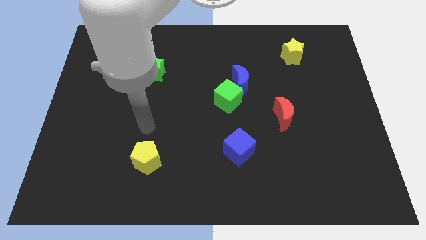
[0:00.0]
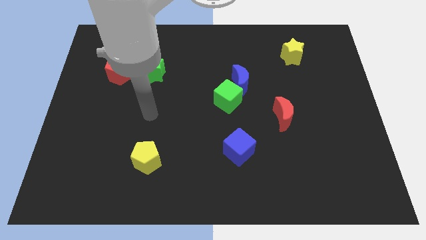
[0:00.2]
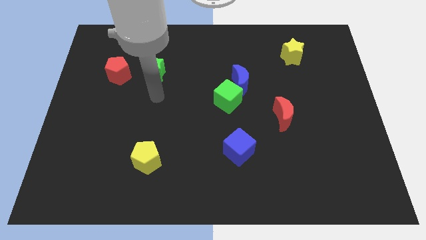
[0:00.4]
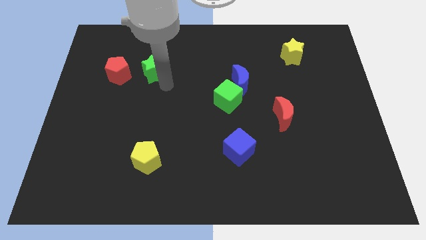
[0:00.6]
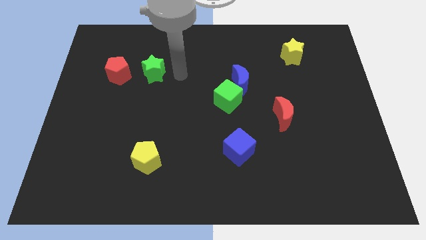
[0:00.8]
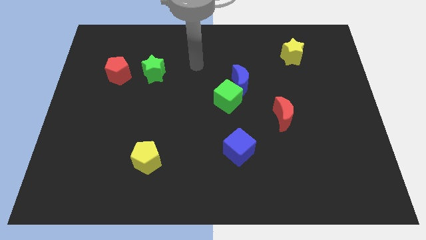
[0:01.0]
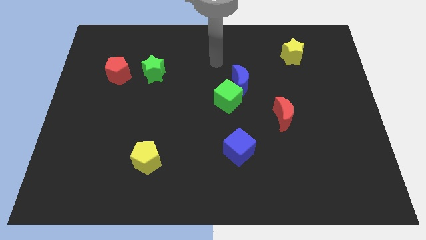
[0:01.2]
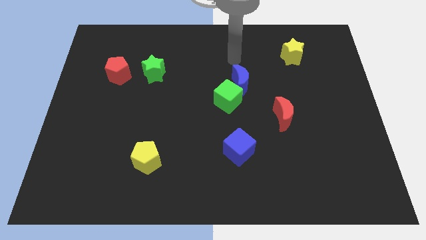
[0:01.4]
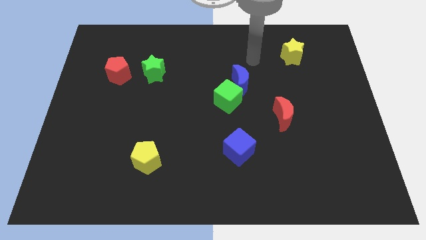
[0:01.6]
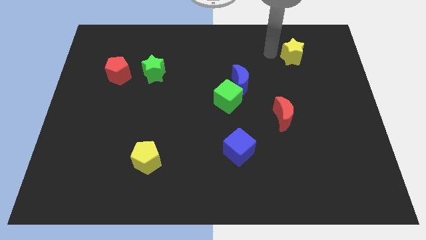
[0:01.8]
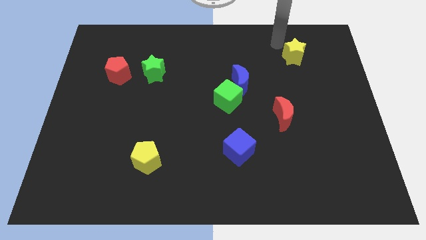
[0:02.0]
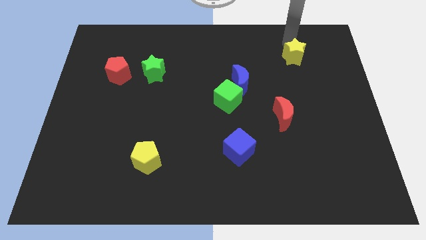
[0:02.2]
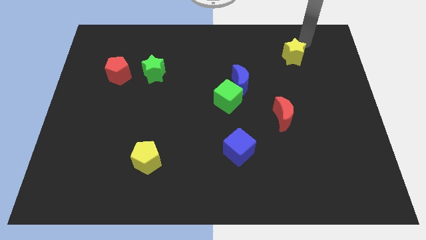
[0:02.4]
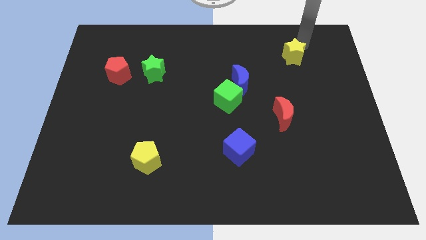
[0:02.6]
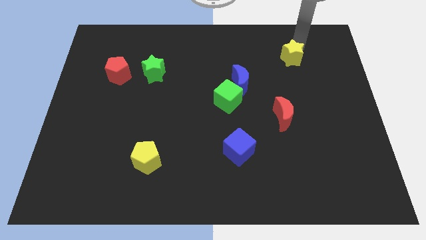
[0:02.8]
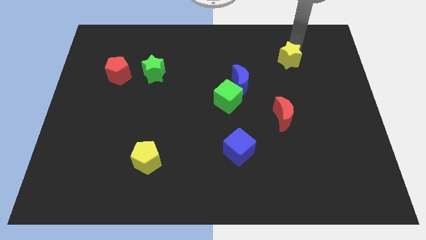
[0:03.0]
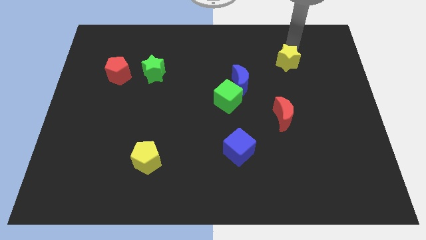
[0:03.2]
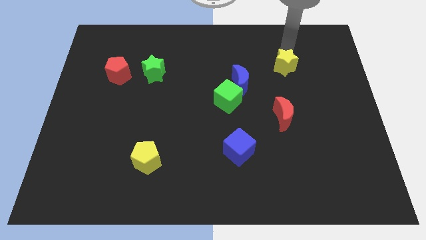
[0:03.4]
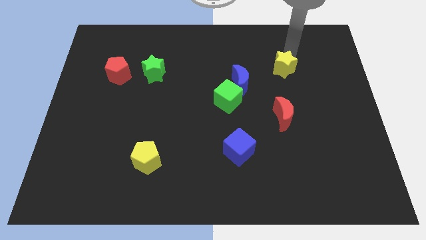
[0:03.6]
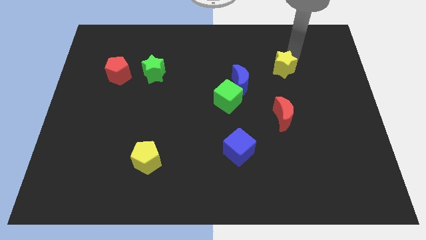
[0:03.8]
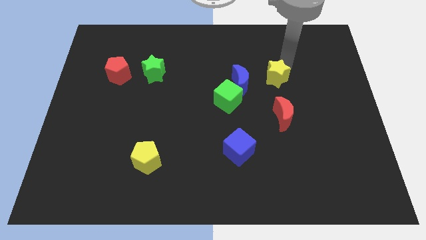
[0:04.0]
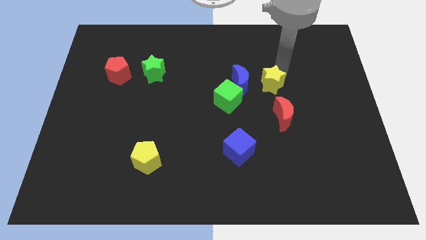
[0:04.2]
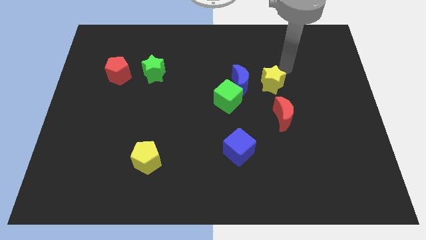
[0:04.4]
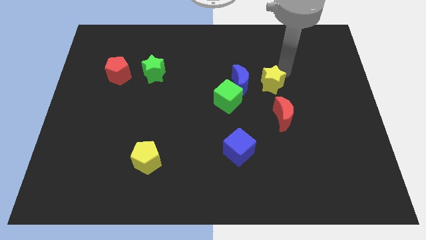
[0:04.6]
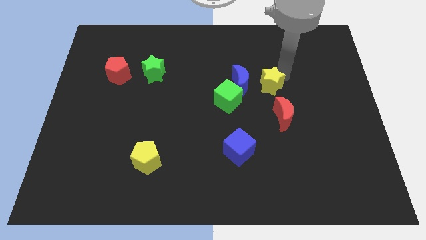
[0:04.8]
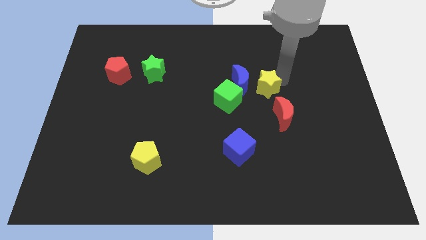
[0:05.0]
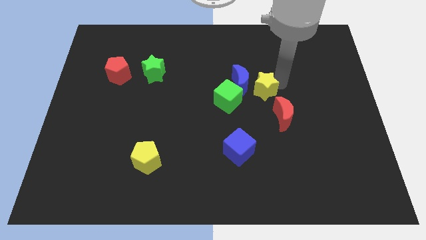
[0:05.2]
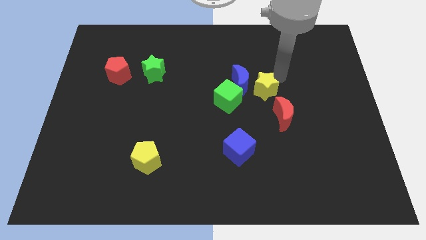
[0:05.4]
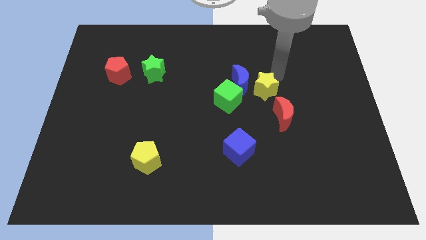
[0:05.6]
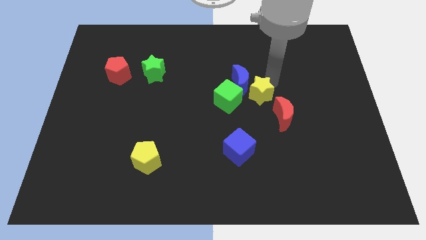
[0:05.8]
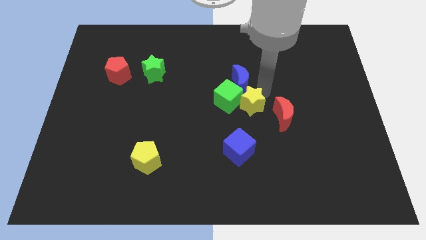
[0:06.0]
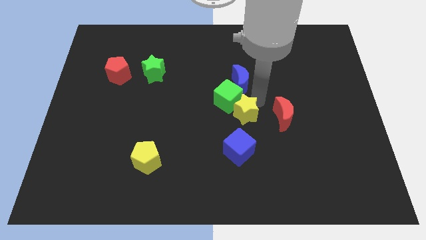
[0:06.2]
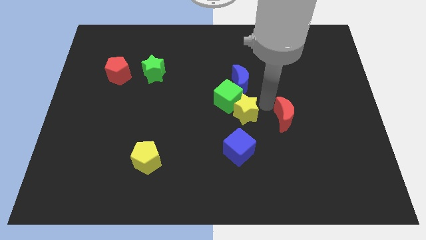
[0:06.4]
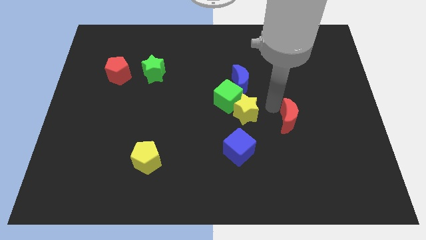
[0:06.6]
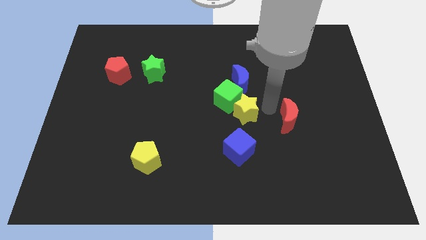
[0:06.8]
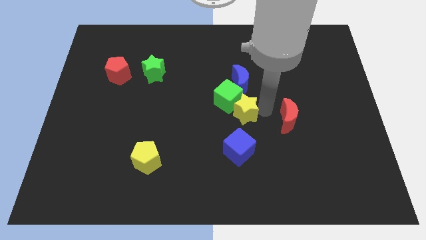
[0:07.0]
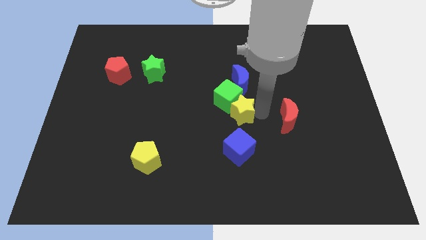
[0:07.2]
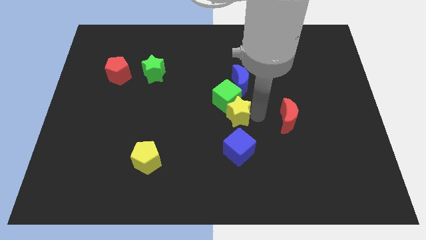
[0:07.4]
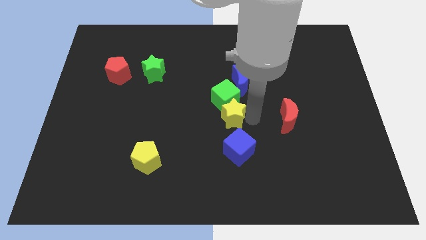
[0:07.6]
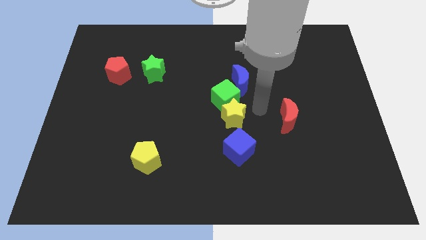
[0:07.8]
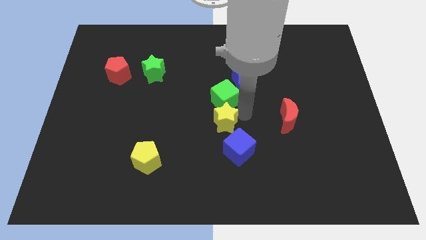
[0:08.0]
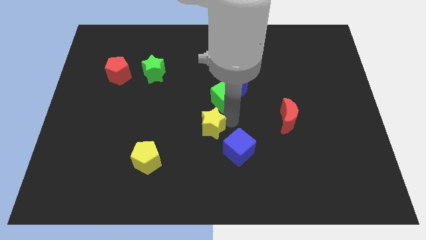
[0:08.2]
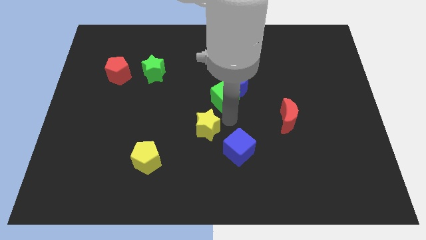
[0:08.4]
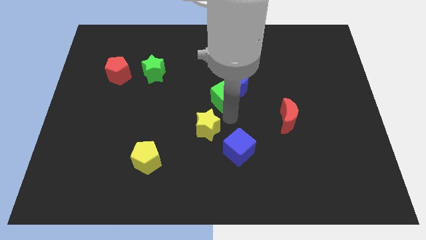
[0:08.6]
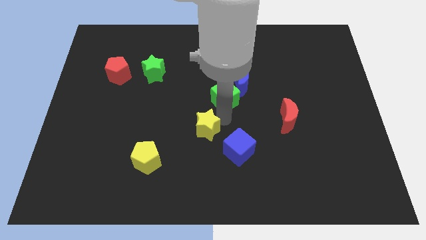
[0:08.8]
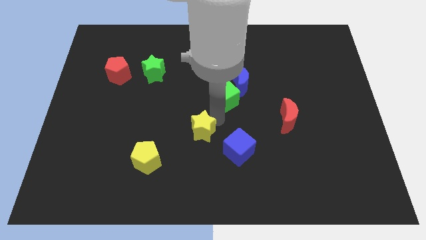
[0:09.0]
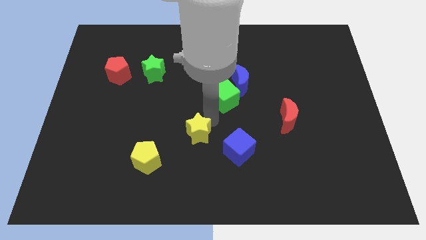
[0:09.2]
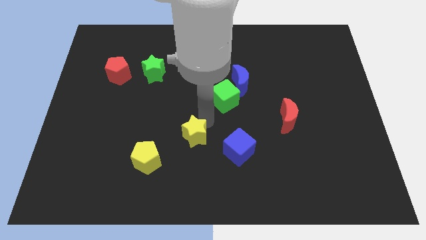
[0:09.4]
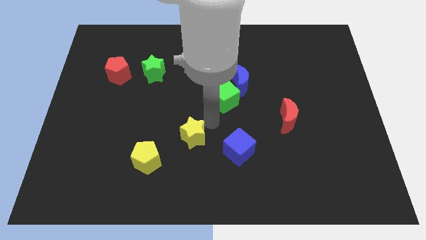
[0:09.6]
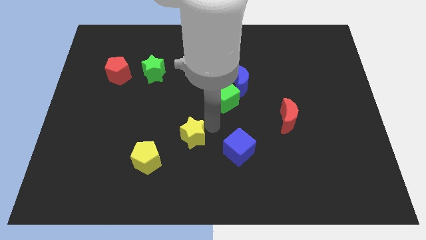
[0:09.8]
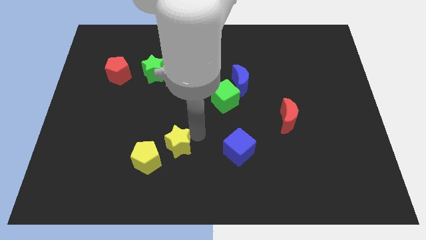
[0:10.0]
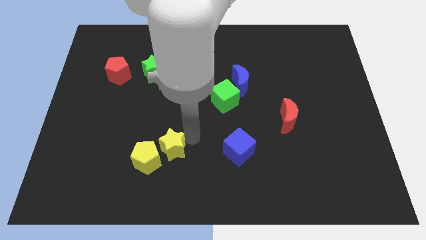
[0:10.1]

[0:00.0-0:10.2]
push the yellow star to the yellow pentagon

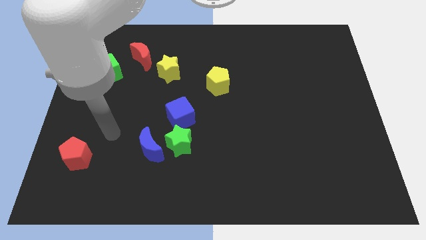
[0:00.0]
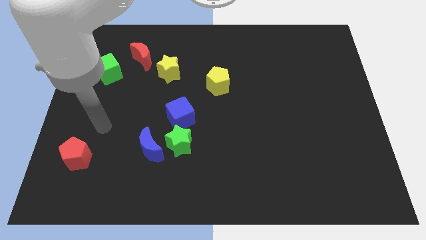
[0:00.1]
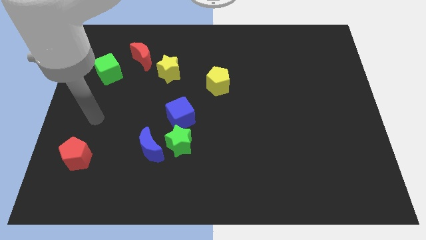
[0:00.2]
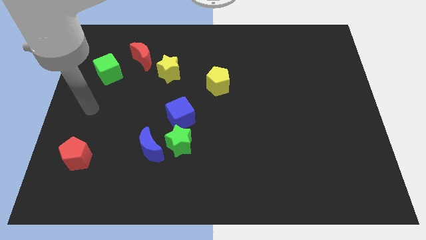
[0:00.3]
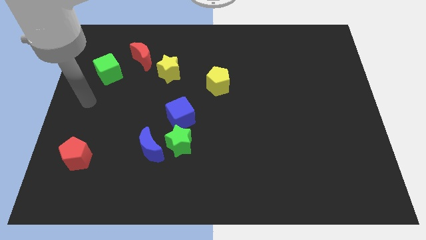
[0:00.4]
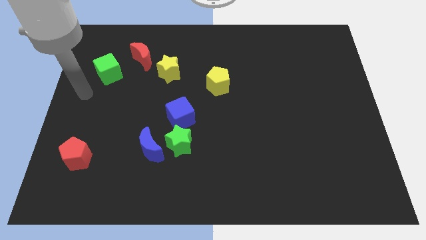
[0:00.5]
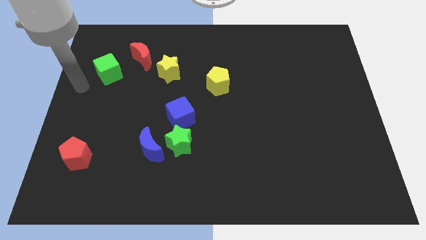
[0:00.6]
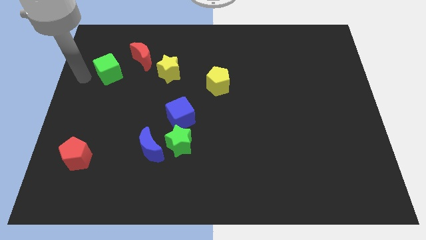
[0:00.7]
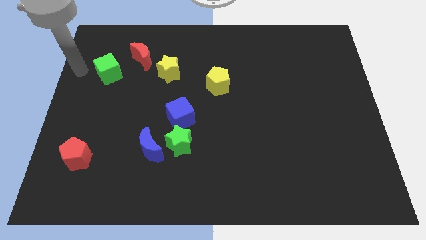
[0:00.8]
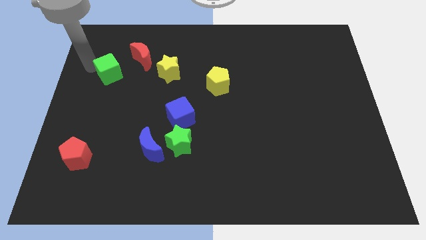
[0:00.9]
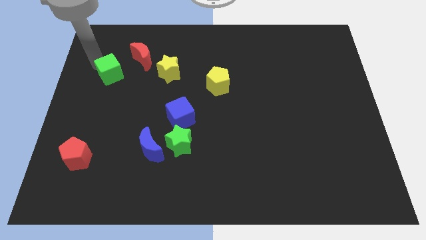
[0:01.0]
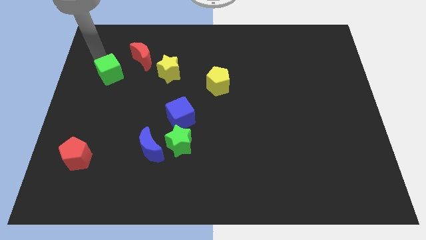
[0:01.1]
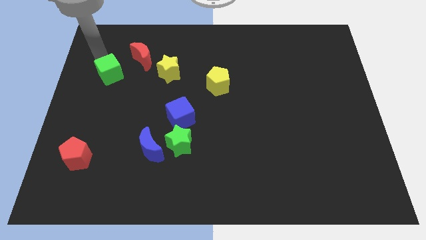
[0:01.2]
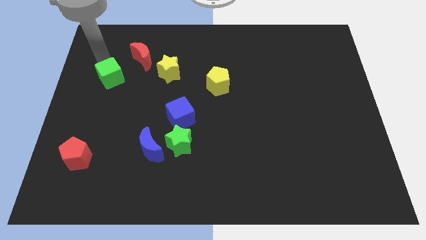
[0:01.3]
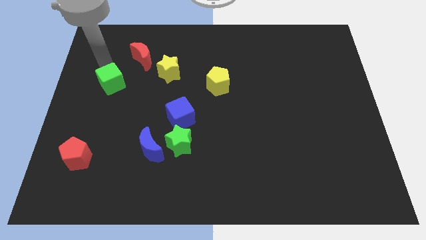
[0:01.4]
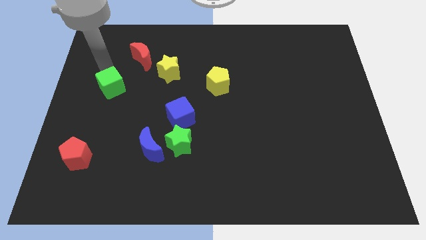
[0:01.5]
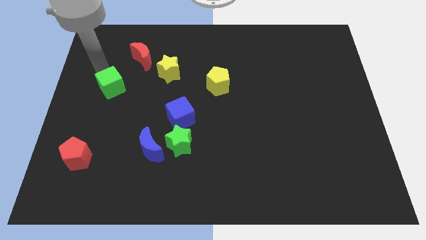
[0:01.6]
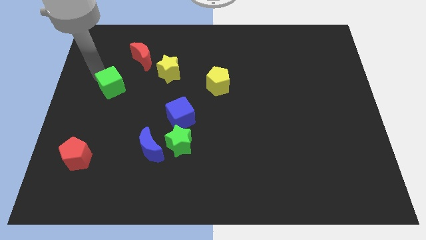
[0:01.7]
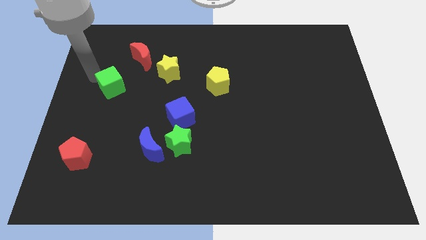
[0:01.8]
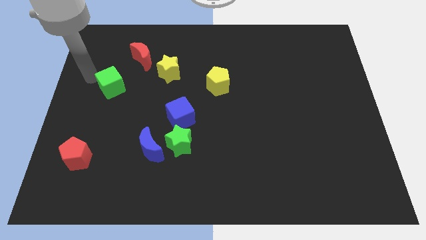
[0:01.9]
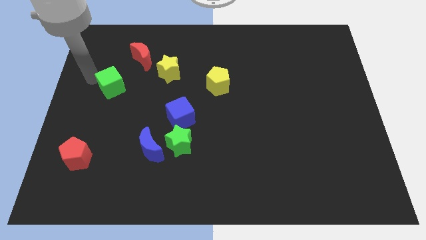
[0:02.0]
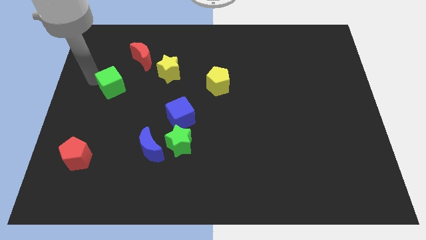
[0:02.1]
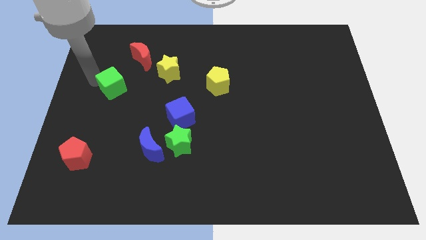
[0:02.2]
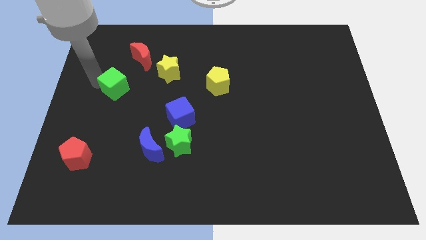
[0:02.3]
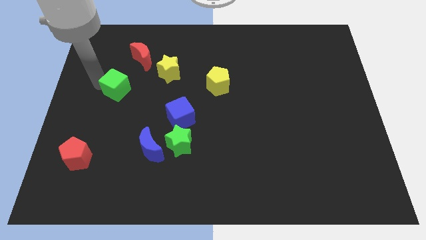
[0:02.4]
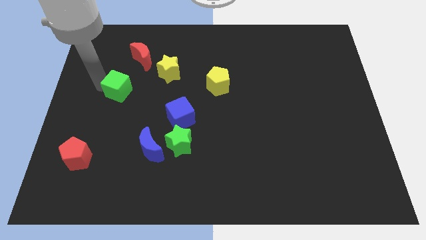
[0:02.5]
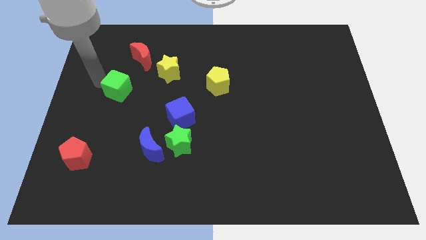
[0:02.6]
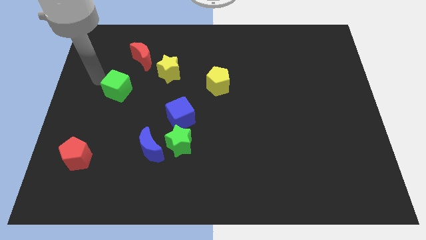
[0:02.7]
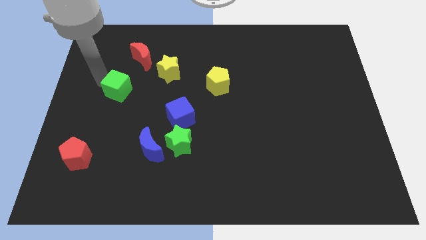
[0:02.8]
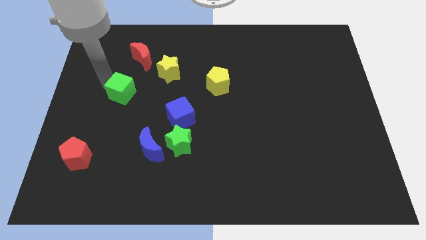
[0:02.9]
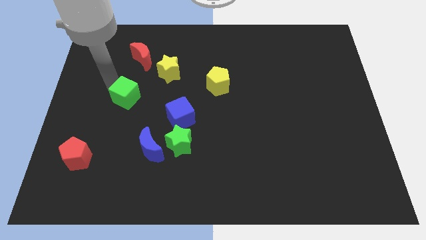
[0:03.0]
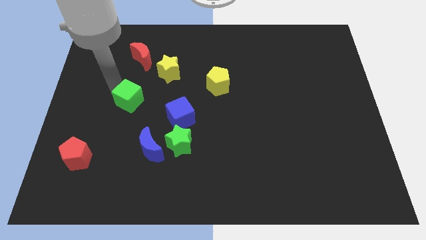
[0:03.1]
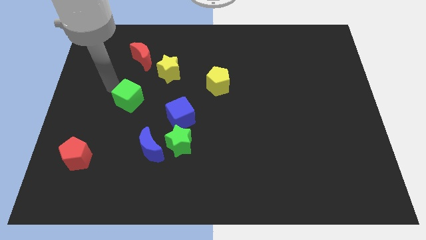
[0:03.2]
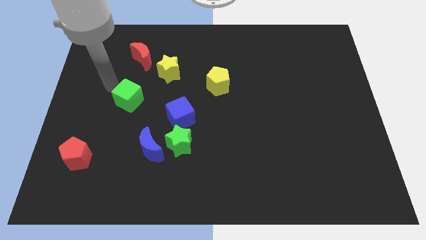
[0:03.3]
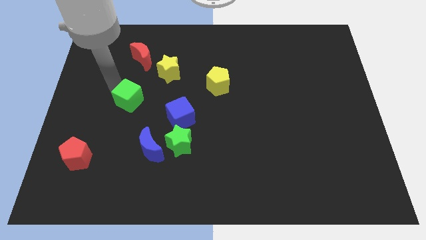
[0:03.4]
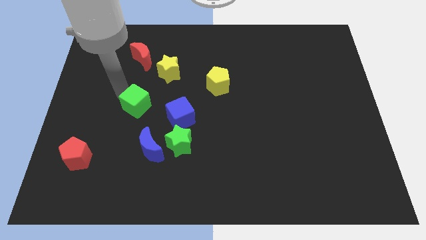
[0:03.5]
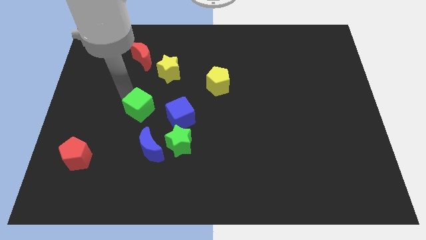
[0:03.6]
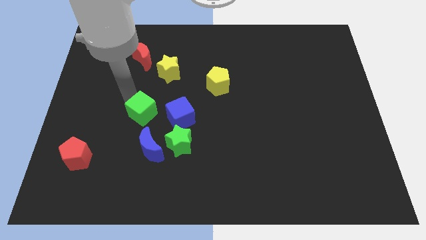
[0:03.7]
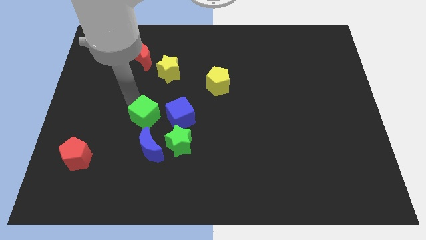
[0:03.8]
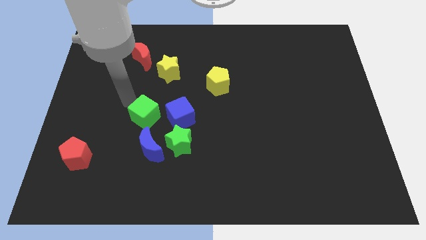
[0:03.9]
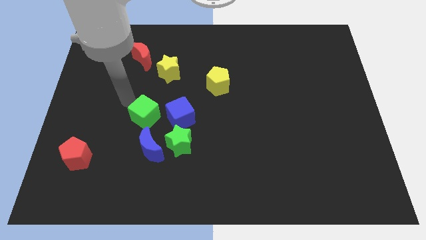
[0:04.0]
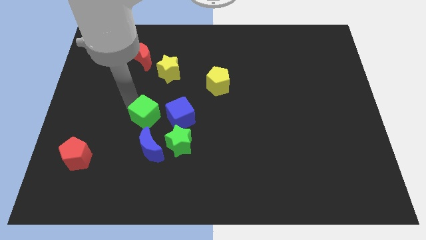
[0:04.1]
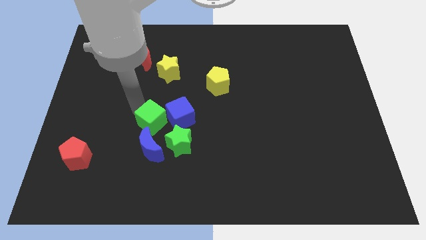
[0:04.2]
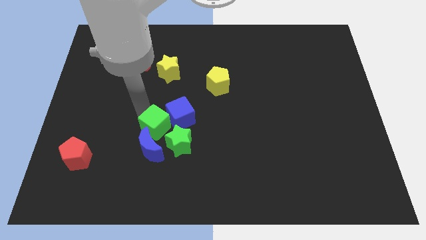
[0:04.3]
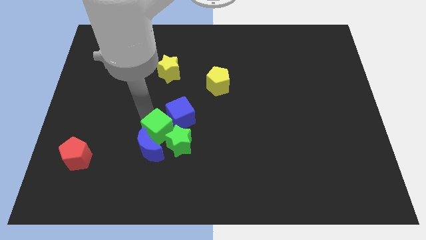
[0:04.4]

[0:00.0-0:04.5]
put the green cube close to the green star
